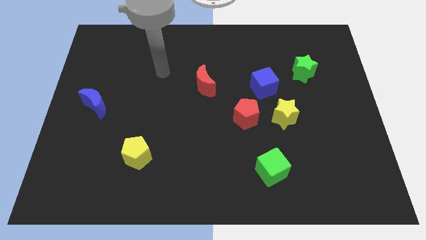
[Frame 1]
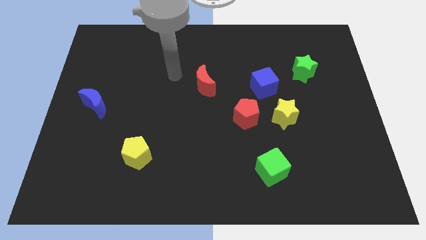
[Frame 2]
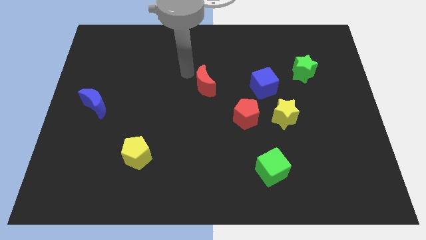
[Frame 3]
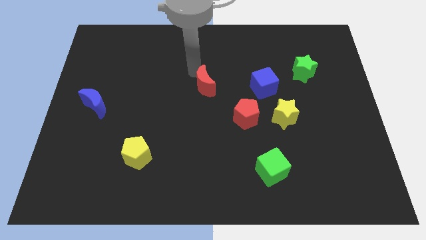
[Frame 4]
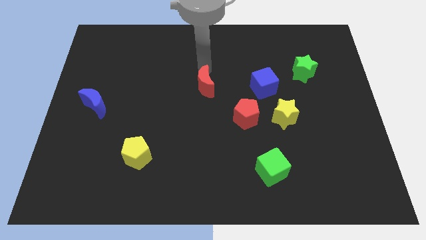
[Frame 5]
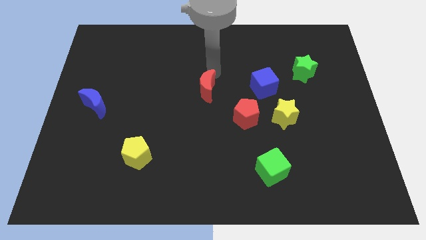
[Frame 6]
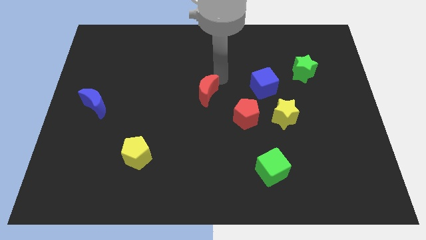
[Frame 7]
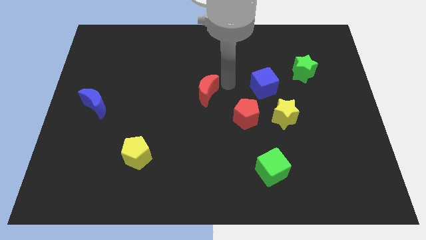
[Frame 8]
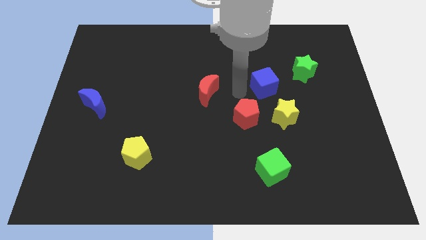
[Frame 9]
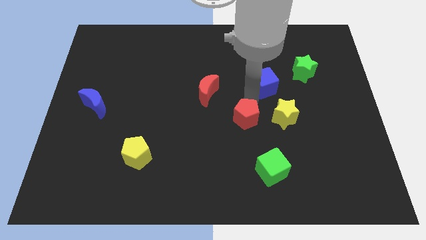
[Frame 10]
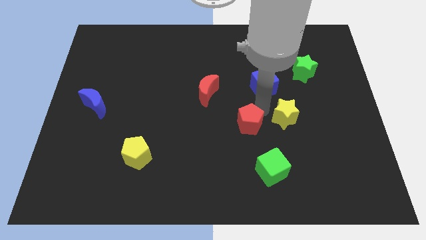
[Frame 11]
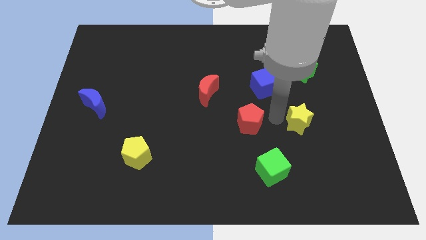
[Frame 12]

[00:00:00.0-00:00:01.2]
pull the red pentagon apart from the yellow star

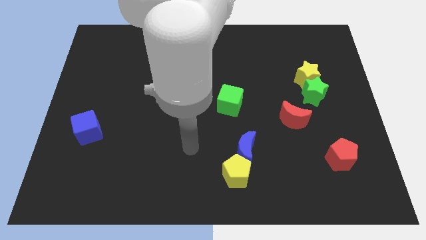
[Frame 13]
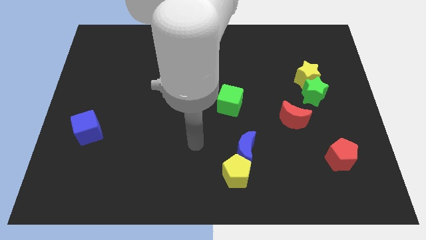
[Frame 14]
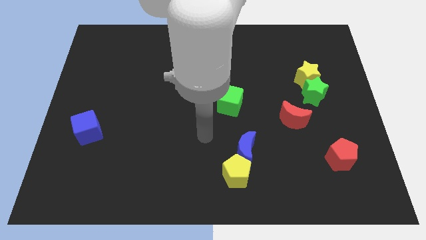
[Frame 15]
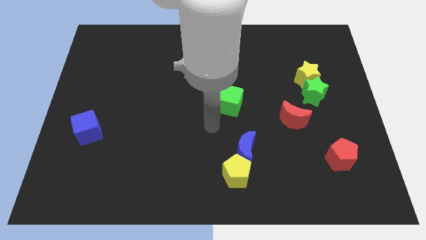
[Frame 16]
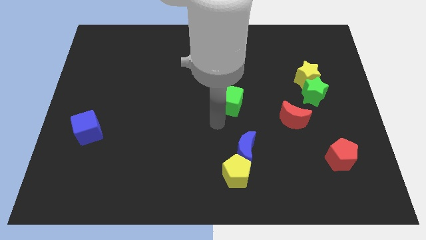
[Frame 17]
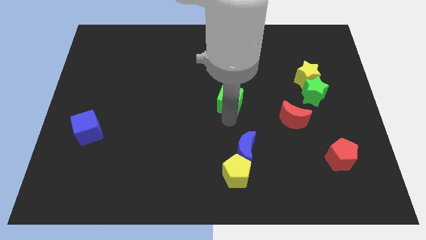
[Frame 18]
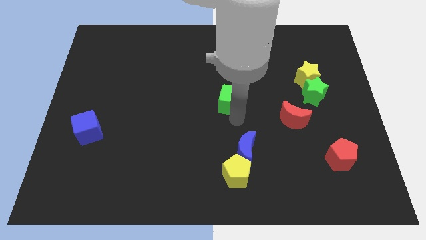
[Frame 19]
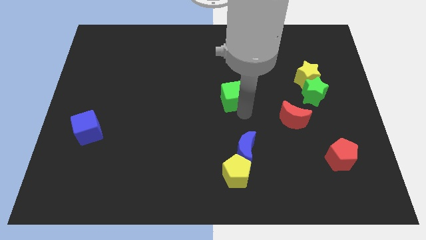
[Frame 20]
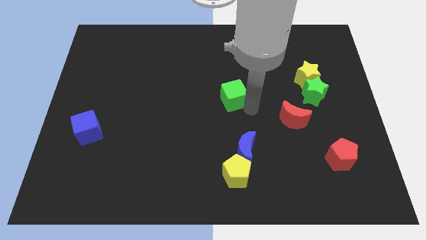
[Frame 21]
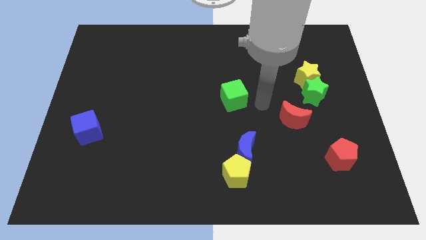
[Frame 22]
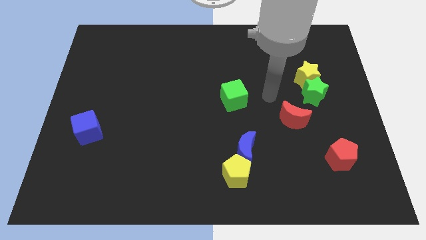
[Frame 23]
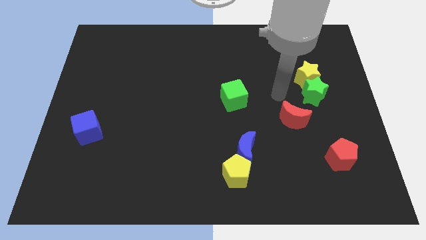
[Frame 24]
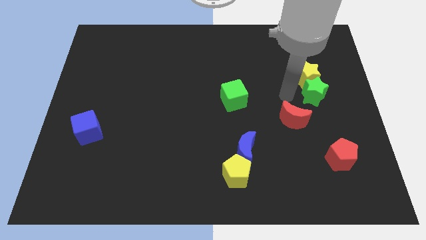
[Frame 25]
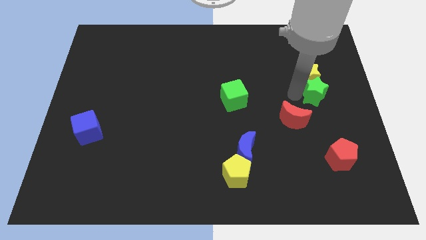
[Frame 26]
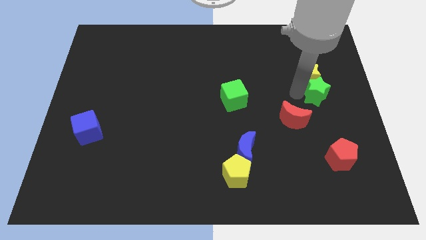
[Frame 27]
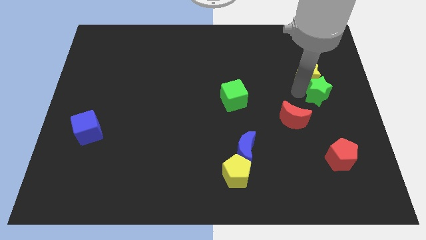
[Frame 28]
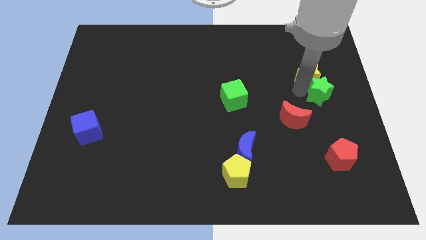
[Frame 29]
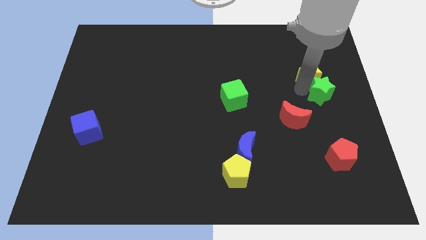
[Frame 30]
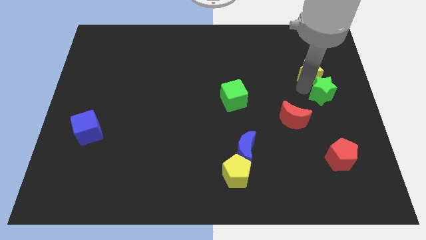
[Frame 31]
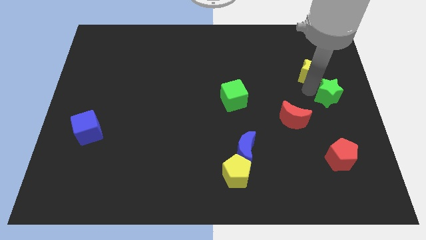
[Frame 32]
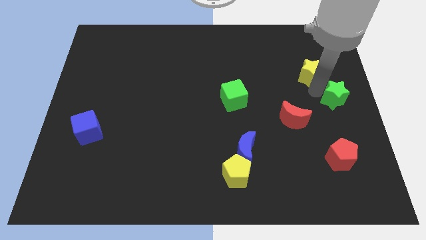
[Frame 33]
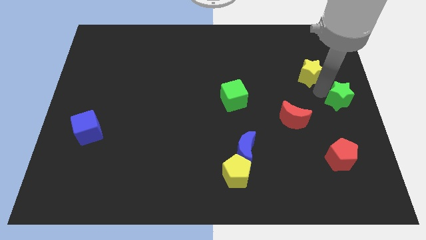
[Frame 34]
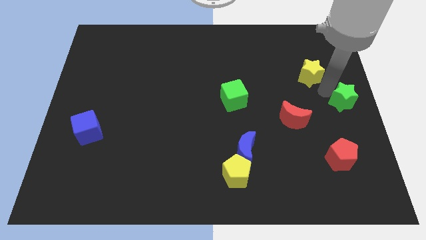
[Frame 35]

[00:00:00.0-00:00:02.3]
pull the yellow star apart from the green star

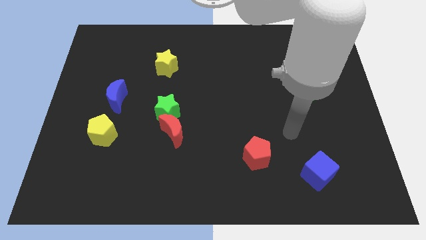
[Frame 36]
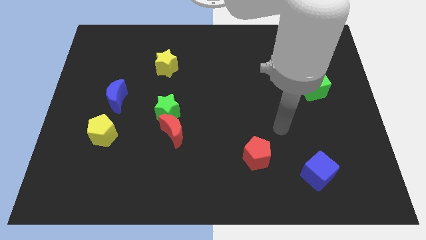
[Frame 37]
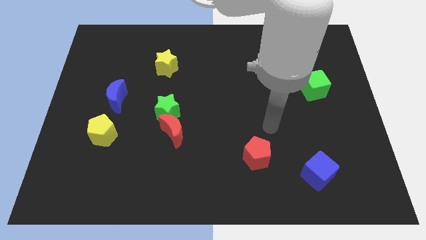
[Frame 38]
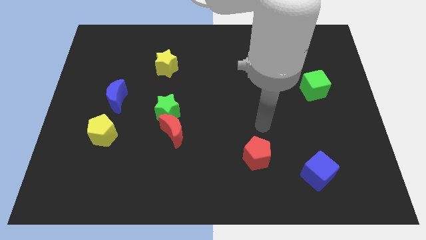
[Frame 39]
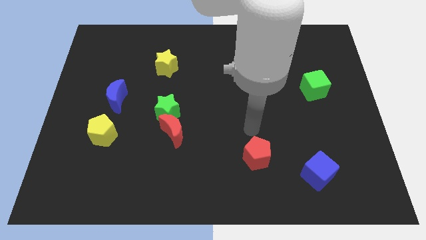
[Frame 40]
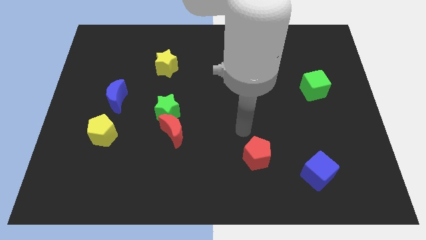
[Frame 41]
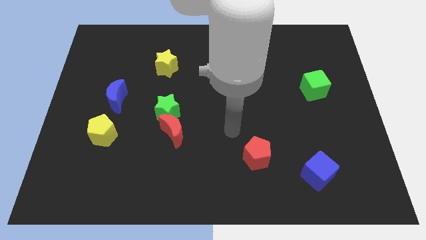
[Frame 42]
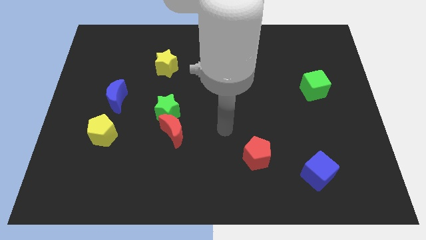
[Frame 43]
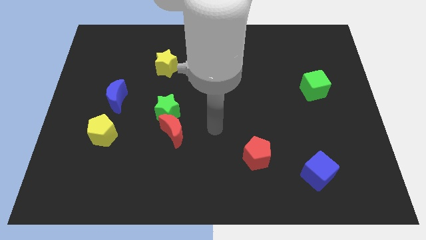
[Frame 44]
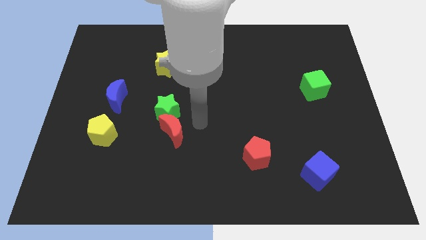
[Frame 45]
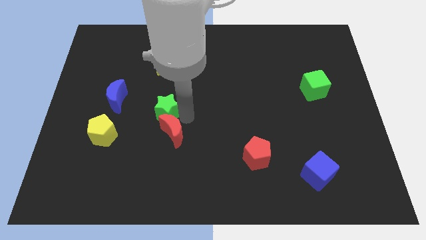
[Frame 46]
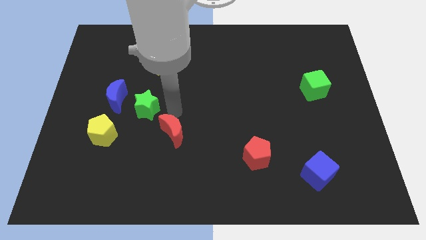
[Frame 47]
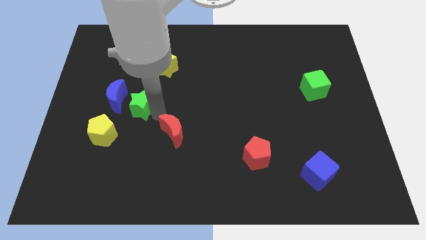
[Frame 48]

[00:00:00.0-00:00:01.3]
move the red moon away from the green star

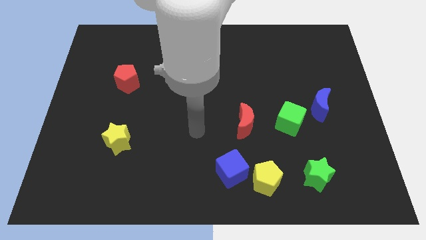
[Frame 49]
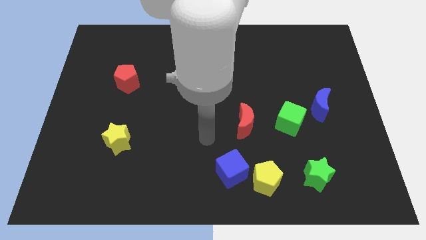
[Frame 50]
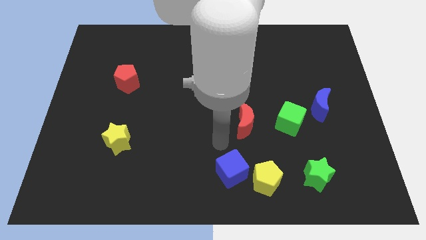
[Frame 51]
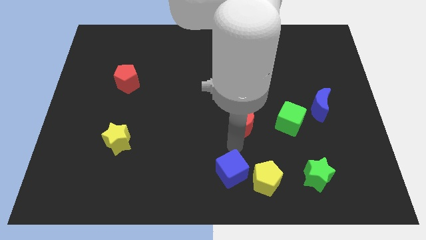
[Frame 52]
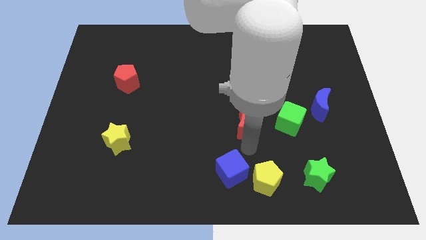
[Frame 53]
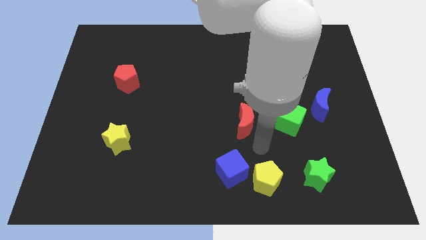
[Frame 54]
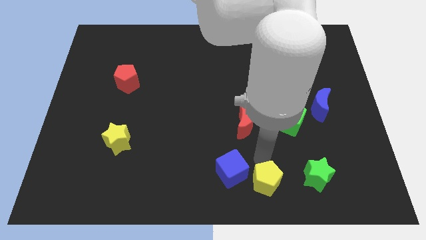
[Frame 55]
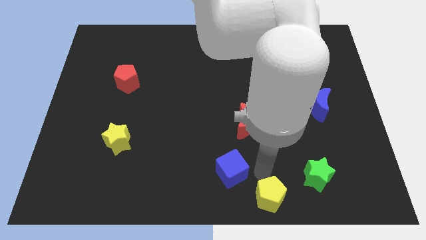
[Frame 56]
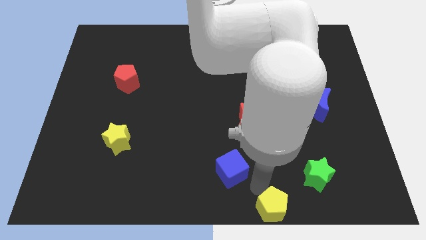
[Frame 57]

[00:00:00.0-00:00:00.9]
move the blue cube away from the yellow pentagon

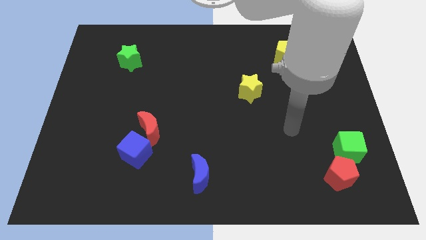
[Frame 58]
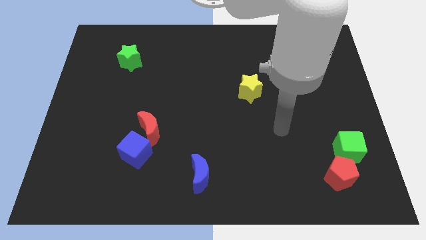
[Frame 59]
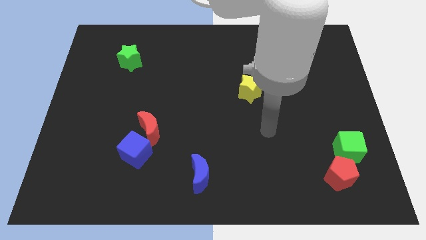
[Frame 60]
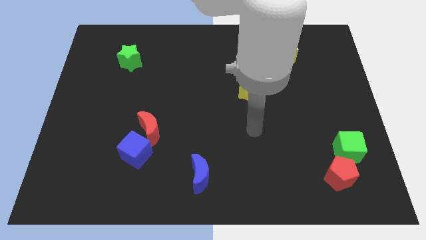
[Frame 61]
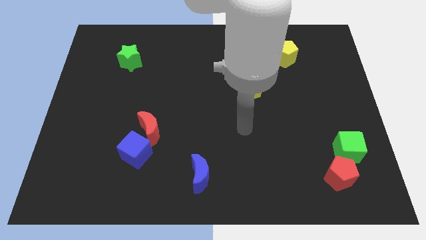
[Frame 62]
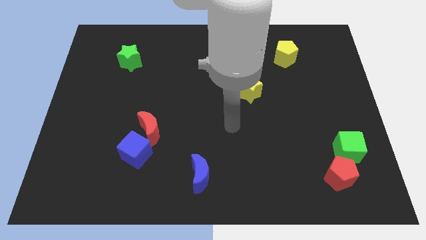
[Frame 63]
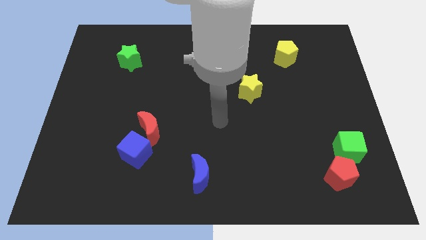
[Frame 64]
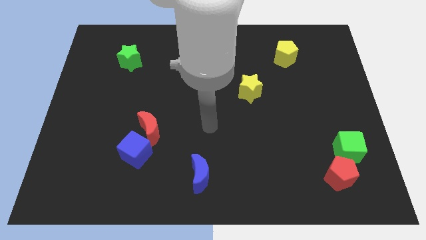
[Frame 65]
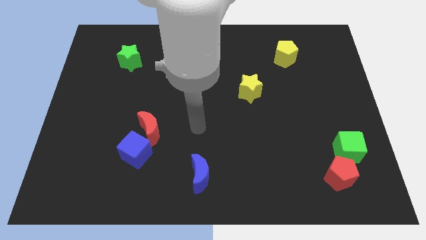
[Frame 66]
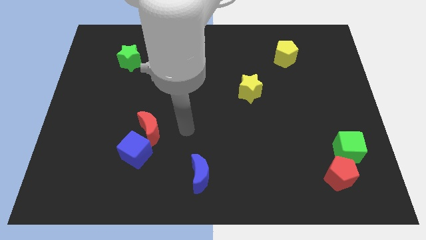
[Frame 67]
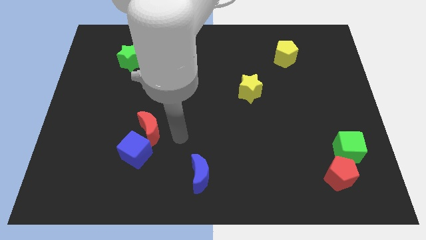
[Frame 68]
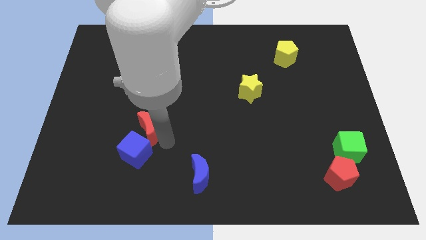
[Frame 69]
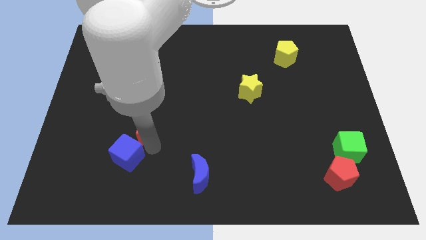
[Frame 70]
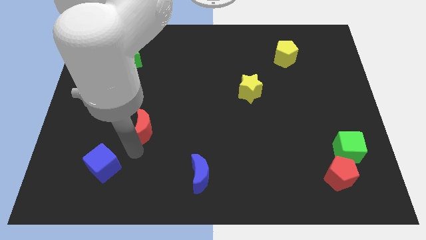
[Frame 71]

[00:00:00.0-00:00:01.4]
pull the red moon apart from the blue cube

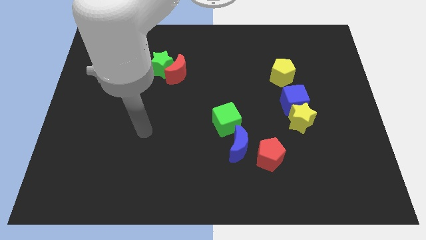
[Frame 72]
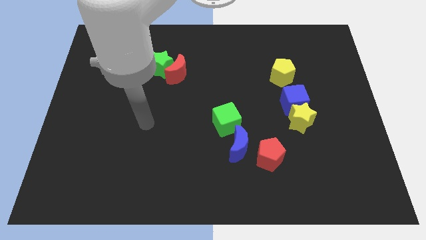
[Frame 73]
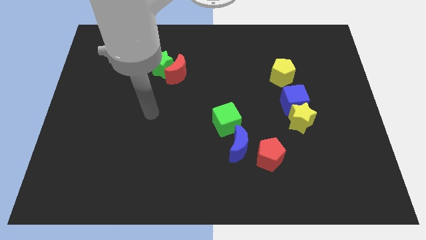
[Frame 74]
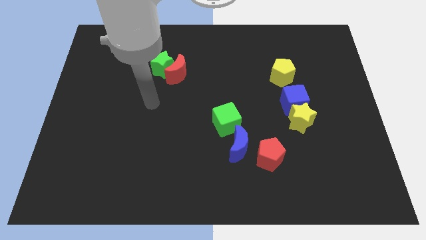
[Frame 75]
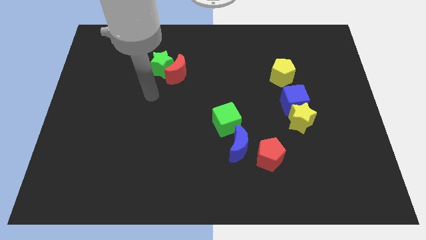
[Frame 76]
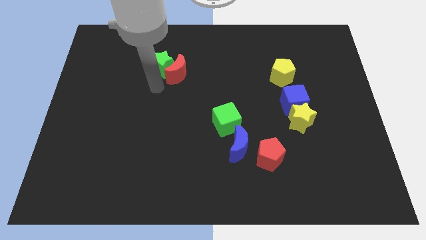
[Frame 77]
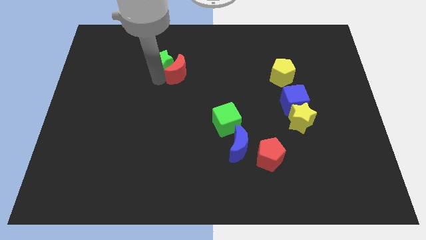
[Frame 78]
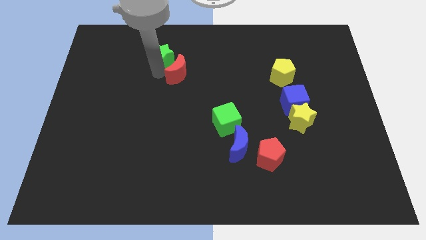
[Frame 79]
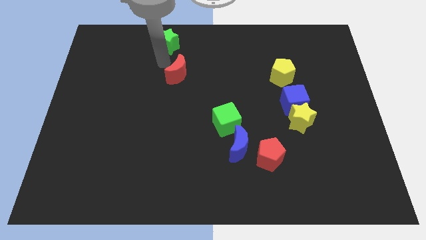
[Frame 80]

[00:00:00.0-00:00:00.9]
separate the red moon from the green star

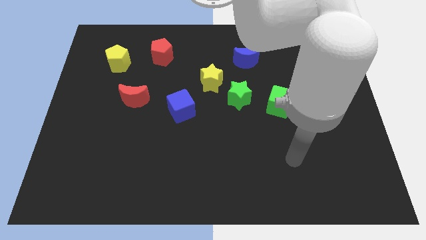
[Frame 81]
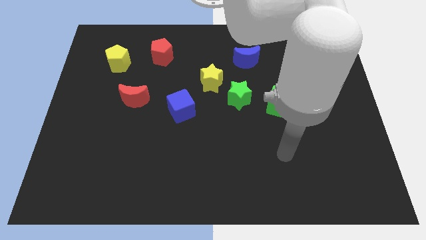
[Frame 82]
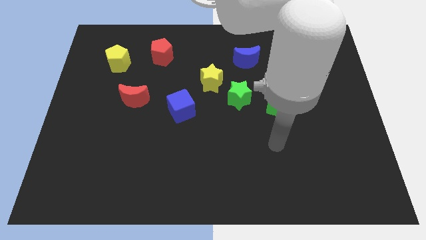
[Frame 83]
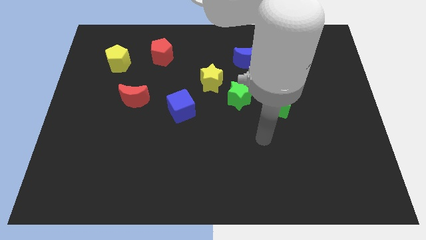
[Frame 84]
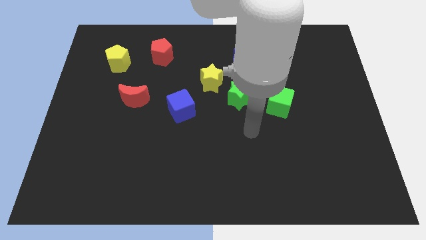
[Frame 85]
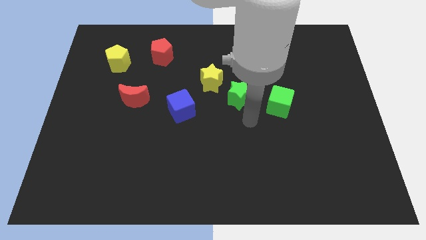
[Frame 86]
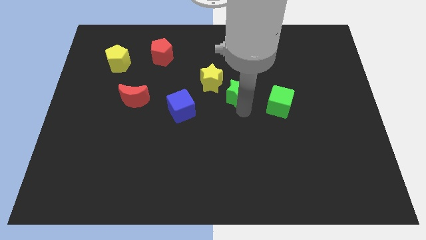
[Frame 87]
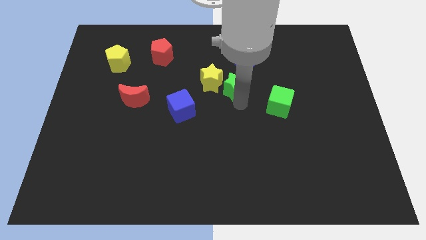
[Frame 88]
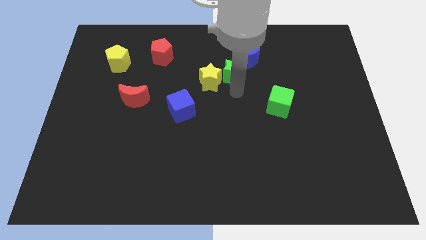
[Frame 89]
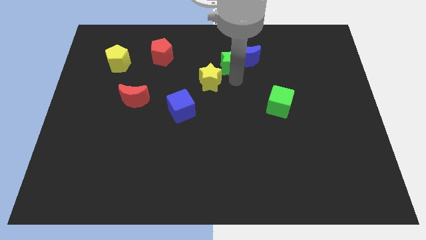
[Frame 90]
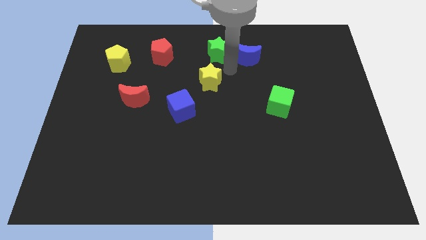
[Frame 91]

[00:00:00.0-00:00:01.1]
separate the yellow star from the green star
